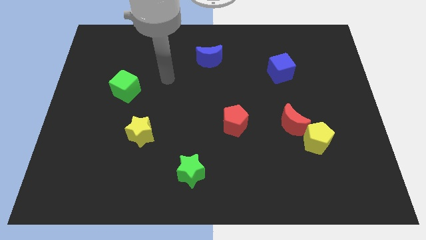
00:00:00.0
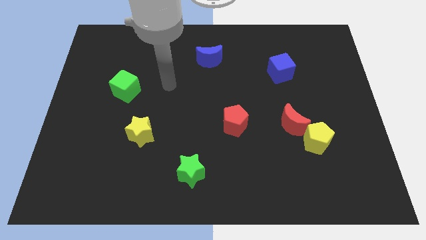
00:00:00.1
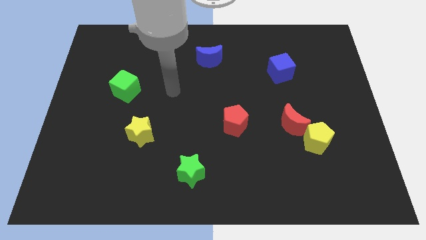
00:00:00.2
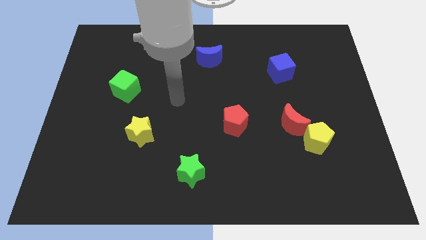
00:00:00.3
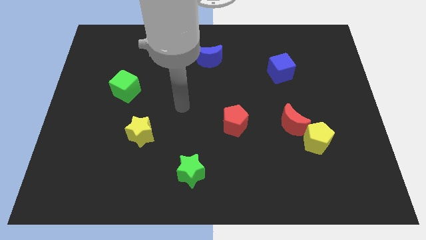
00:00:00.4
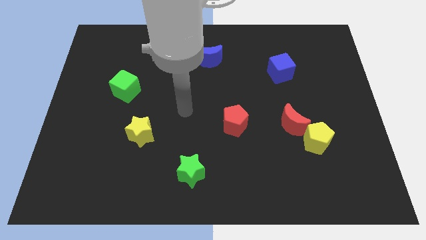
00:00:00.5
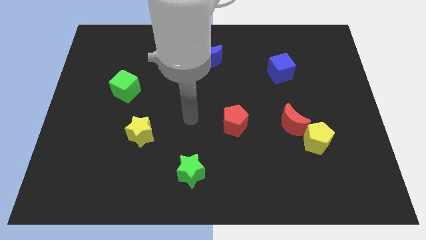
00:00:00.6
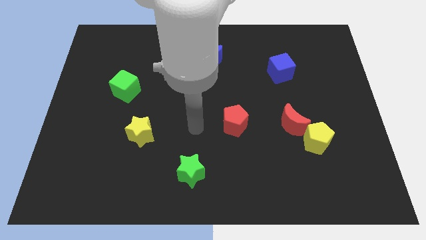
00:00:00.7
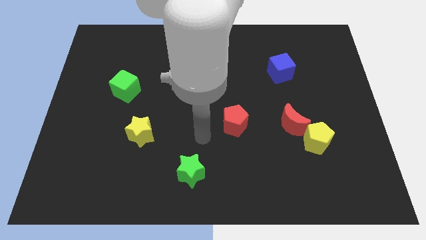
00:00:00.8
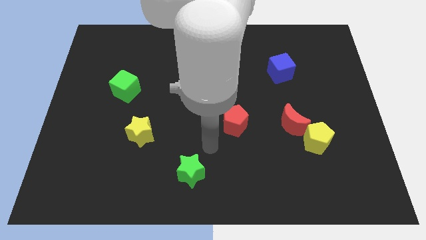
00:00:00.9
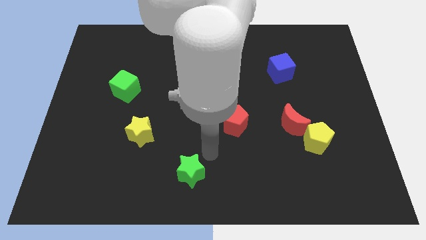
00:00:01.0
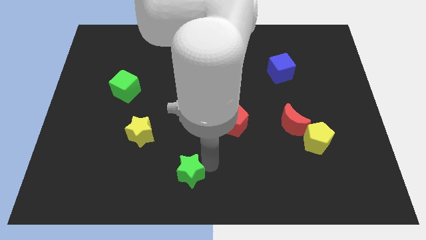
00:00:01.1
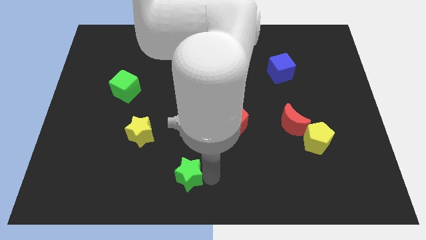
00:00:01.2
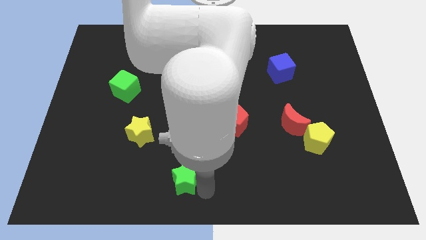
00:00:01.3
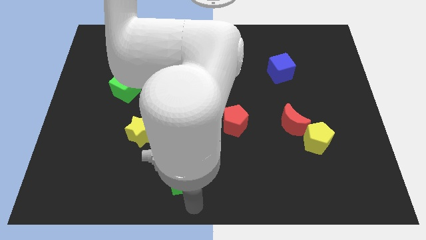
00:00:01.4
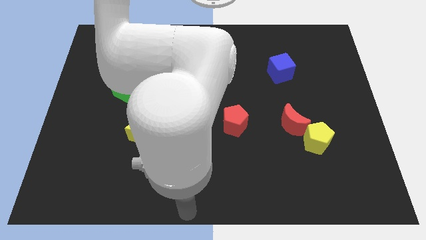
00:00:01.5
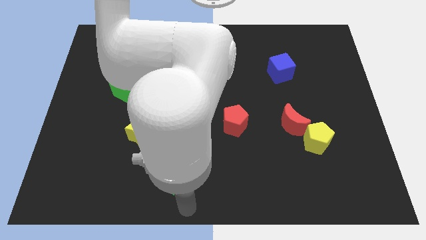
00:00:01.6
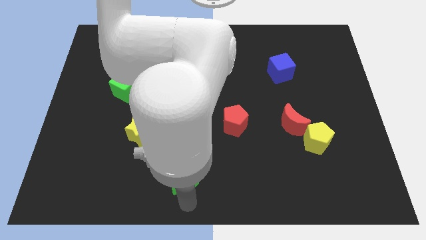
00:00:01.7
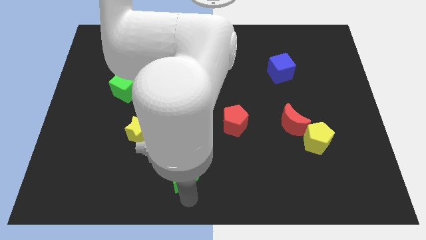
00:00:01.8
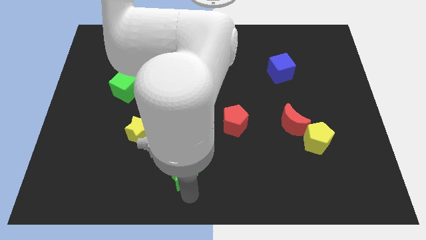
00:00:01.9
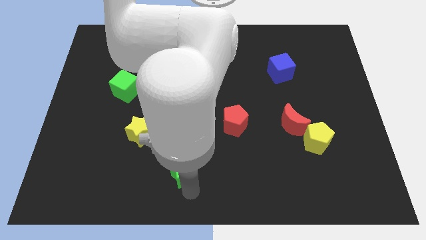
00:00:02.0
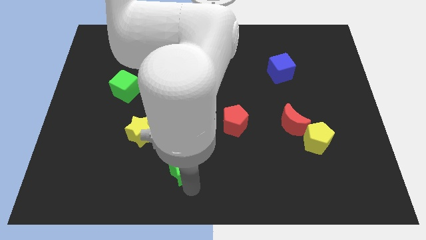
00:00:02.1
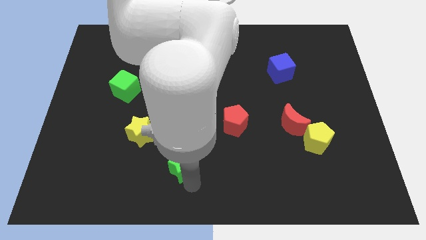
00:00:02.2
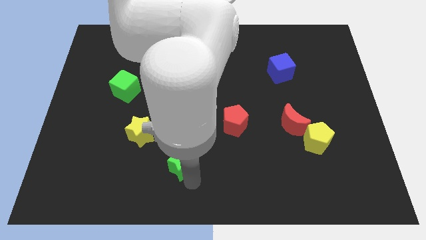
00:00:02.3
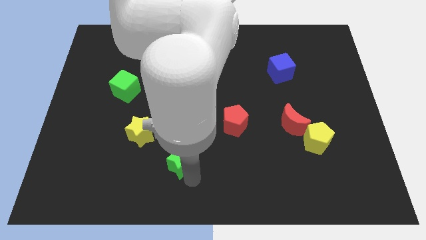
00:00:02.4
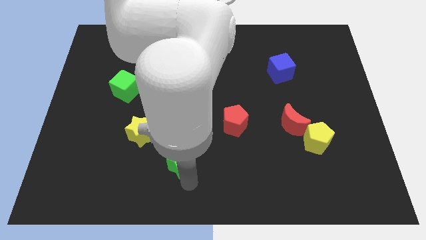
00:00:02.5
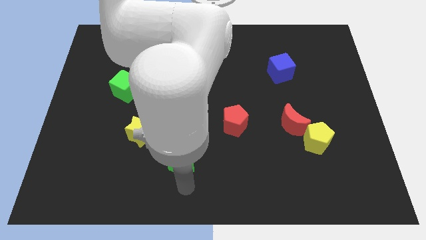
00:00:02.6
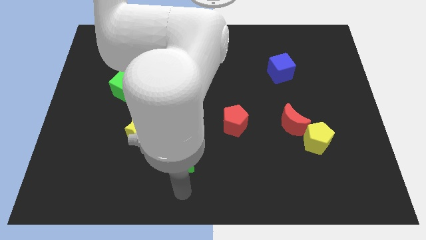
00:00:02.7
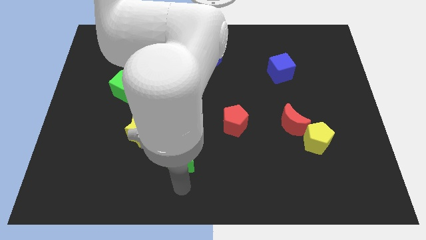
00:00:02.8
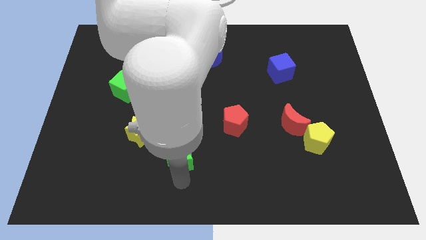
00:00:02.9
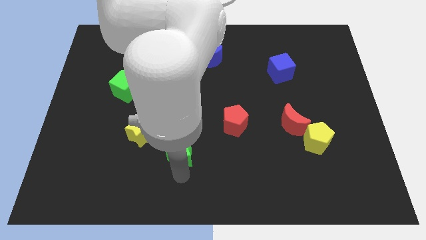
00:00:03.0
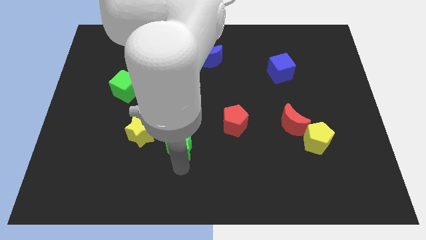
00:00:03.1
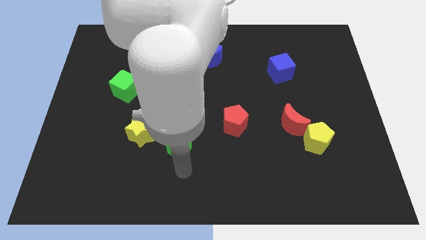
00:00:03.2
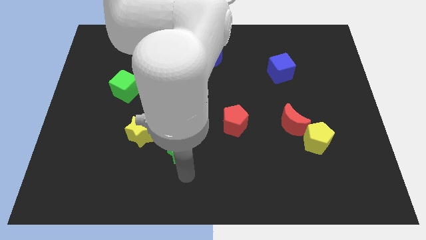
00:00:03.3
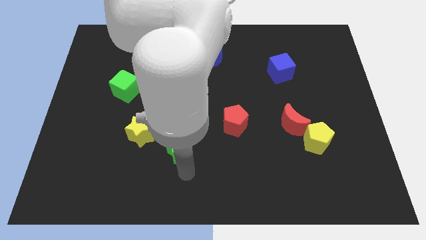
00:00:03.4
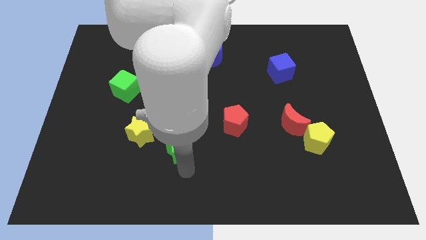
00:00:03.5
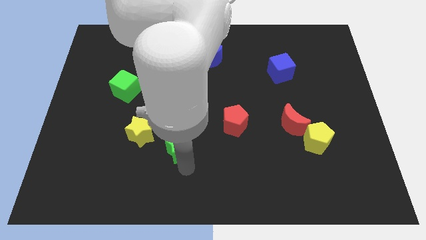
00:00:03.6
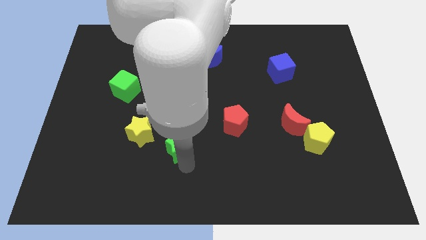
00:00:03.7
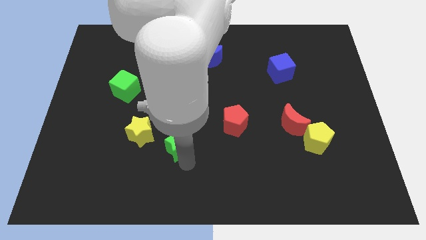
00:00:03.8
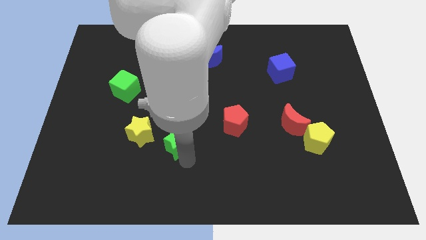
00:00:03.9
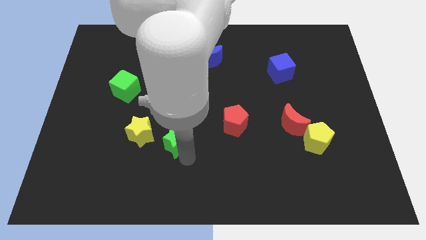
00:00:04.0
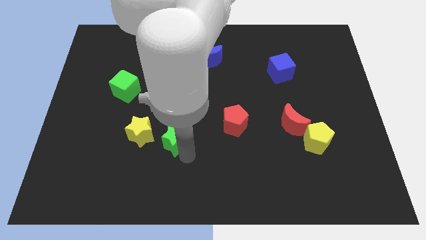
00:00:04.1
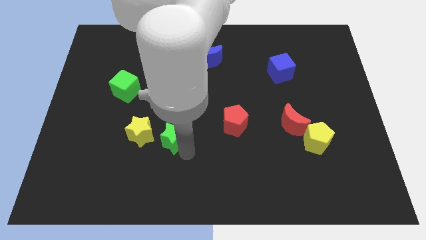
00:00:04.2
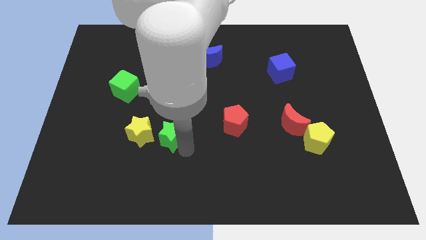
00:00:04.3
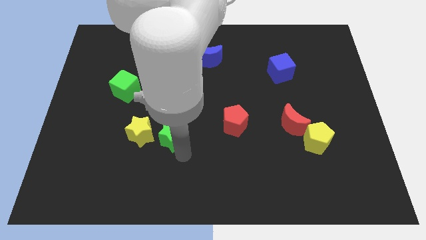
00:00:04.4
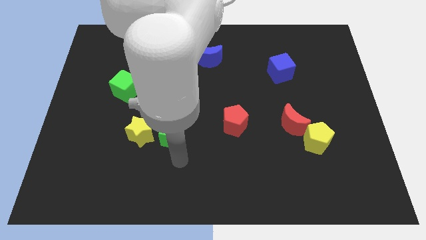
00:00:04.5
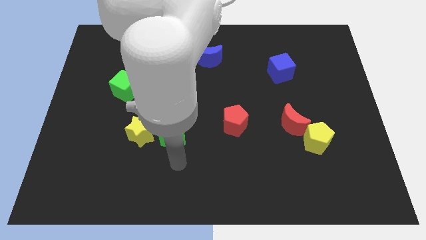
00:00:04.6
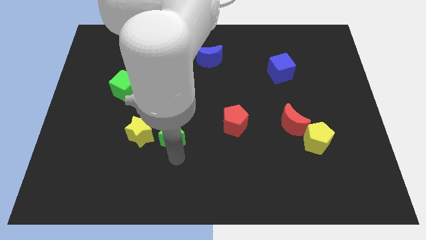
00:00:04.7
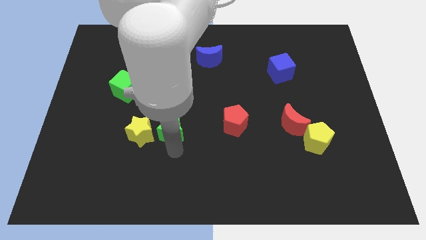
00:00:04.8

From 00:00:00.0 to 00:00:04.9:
push the green star to the top right of the yellow star

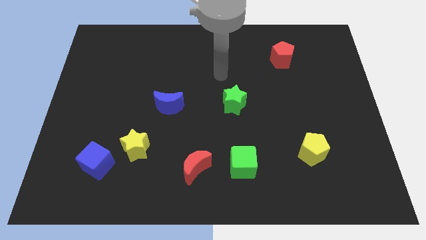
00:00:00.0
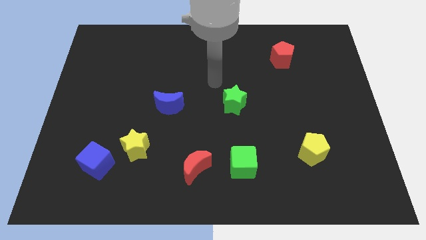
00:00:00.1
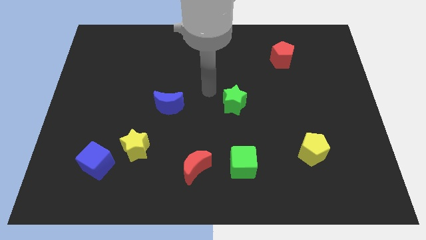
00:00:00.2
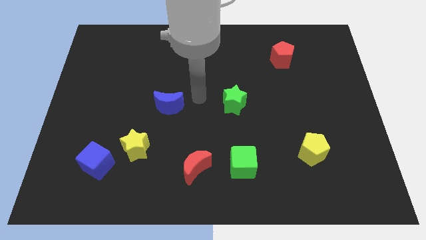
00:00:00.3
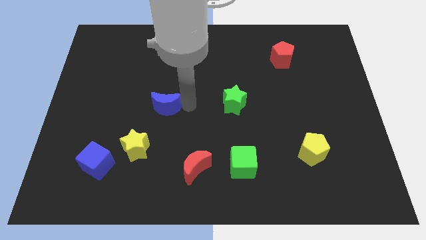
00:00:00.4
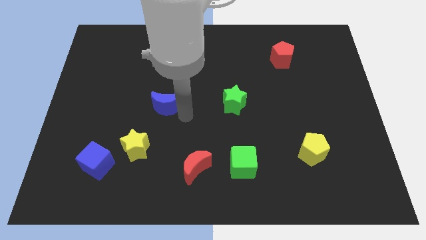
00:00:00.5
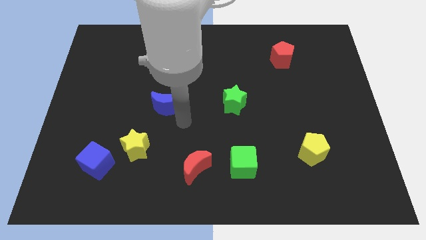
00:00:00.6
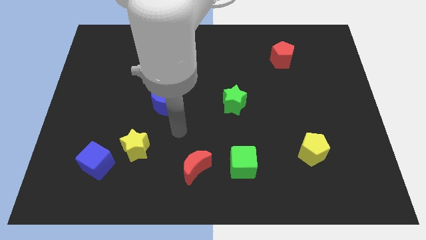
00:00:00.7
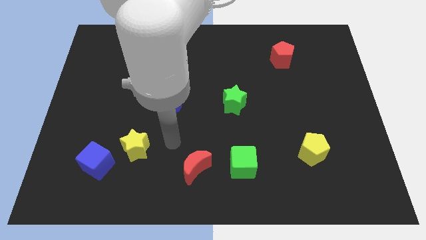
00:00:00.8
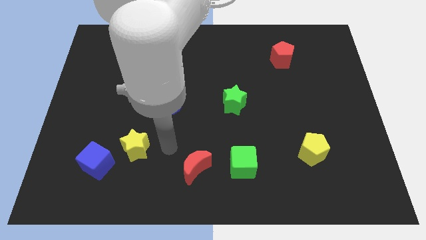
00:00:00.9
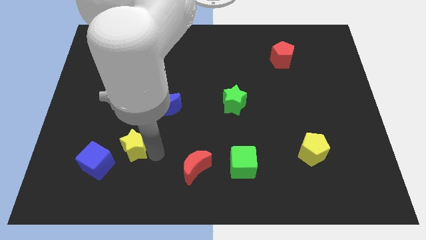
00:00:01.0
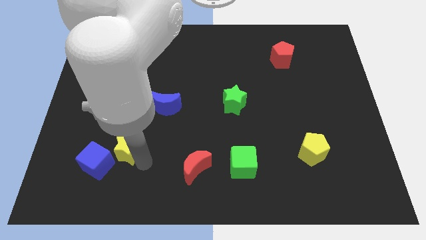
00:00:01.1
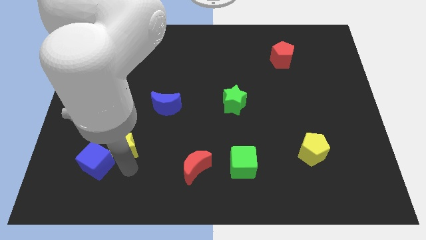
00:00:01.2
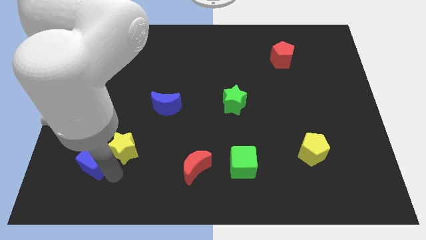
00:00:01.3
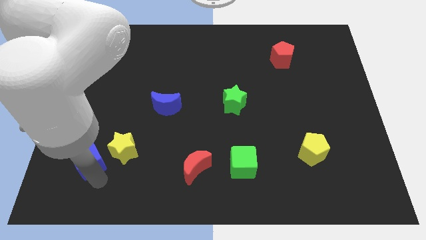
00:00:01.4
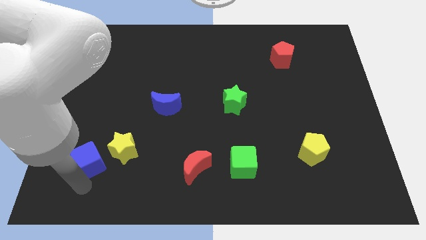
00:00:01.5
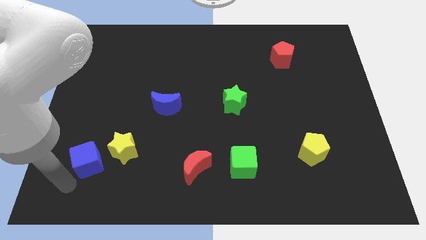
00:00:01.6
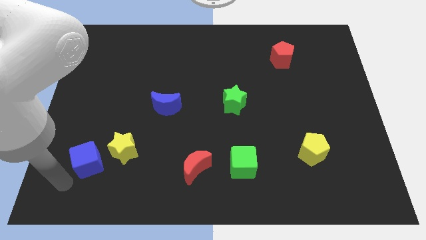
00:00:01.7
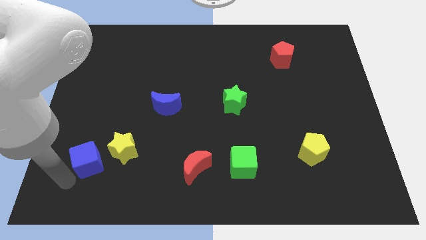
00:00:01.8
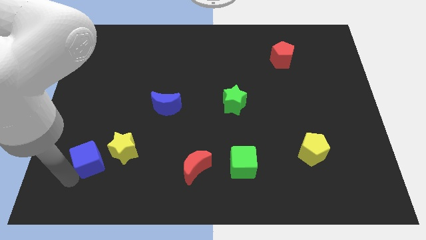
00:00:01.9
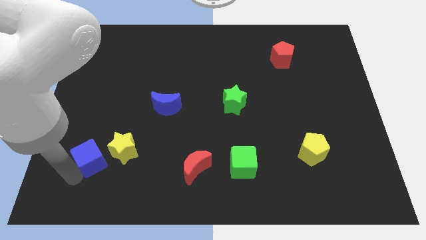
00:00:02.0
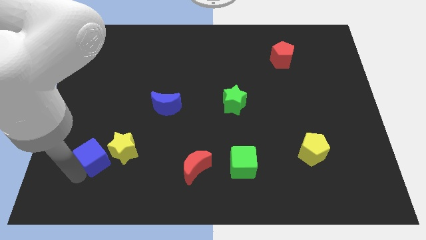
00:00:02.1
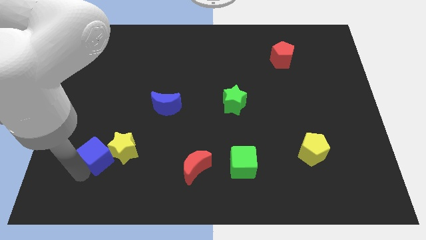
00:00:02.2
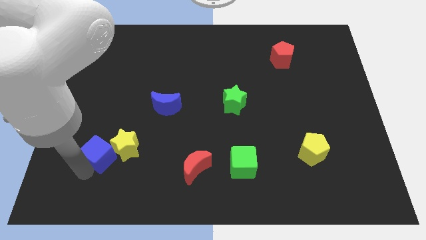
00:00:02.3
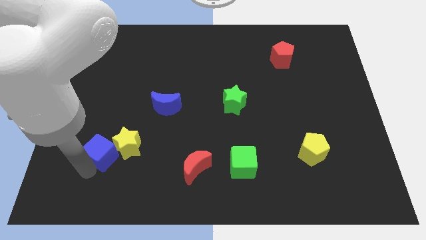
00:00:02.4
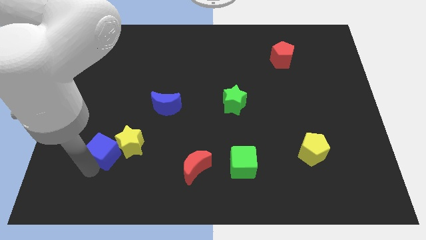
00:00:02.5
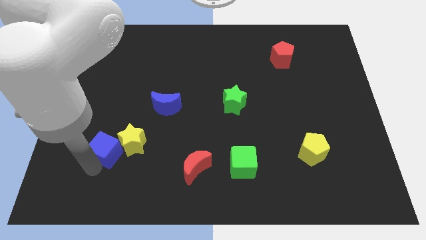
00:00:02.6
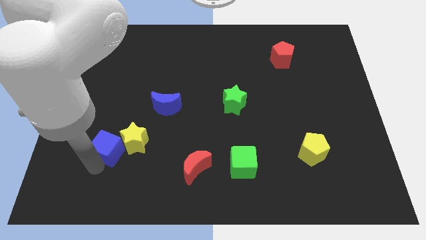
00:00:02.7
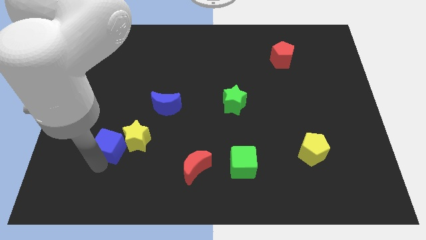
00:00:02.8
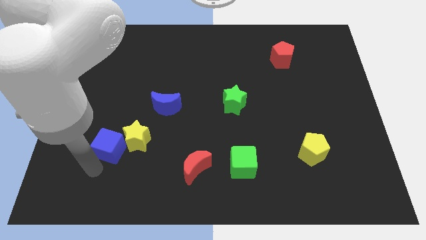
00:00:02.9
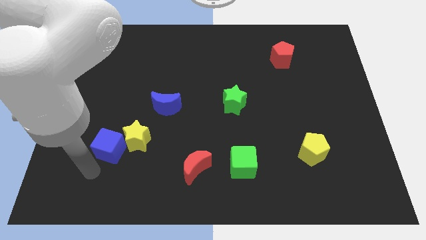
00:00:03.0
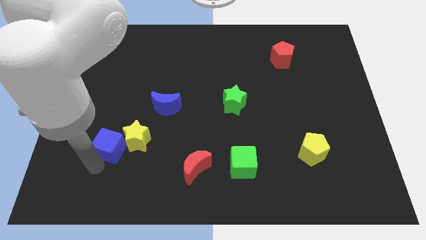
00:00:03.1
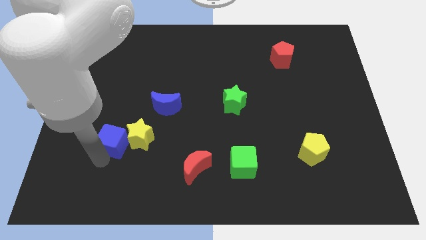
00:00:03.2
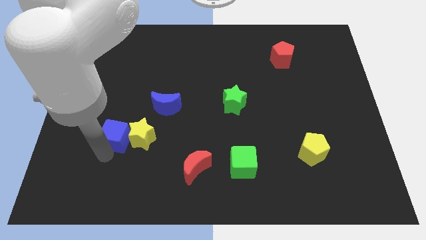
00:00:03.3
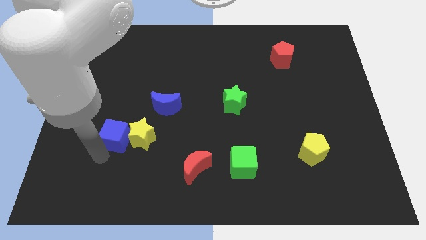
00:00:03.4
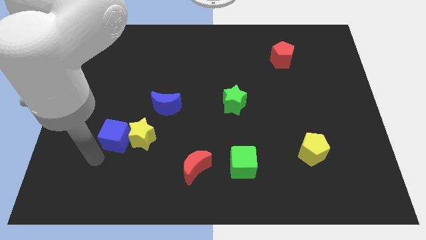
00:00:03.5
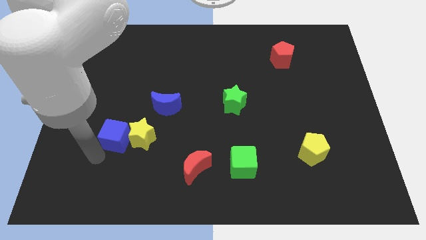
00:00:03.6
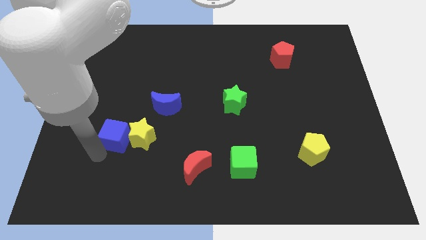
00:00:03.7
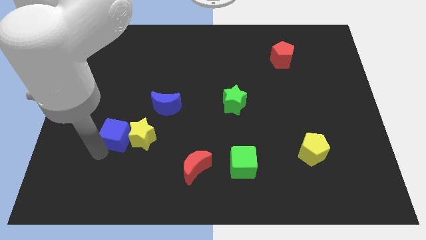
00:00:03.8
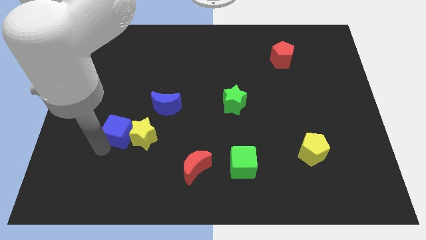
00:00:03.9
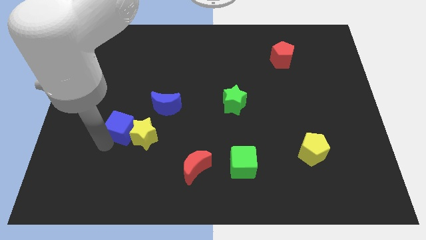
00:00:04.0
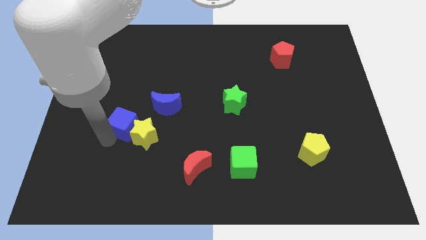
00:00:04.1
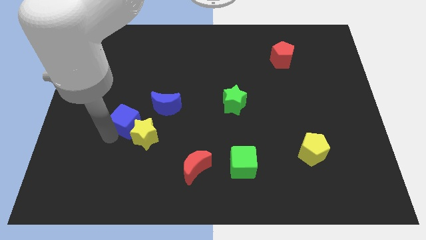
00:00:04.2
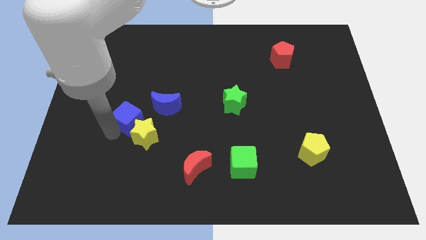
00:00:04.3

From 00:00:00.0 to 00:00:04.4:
put the blue cube to the top of the yellow star
